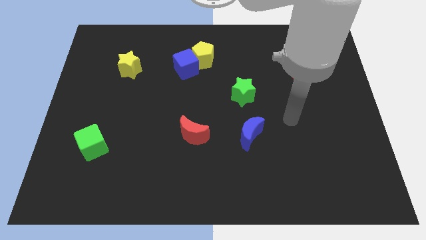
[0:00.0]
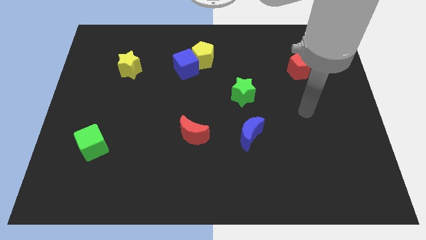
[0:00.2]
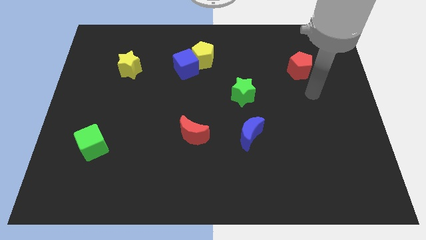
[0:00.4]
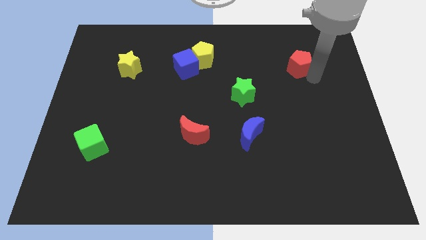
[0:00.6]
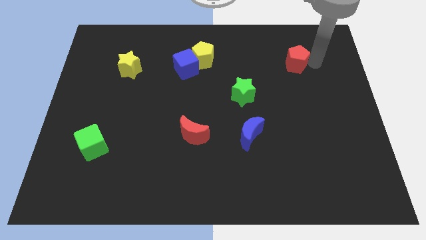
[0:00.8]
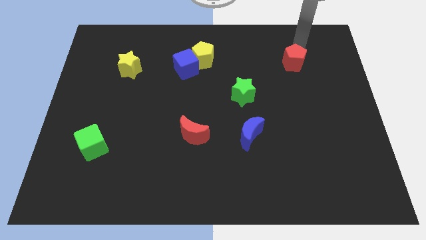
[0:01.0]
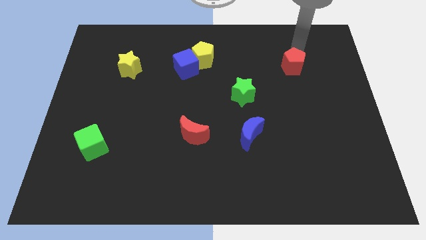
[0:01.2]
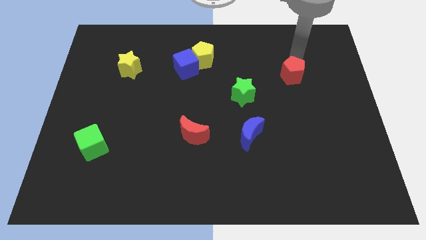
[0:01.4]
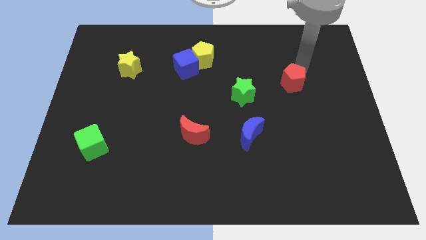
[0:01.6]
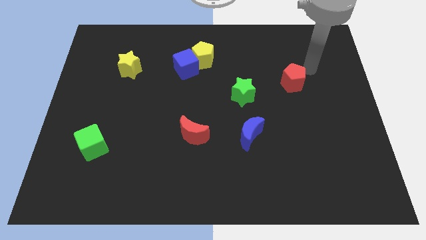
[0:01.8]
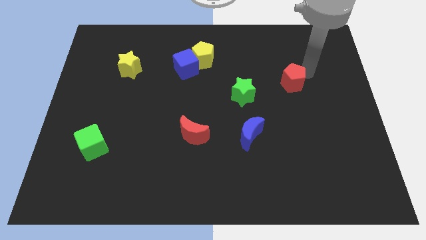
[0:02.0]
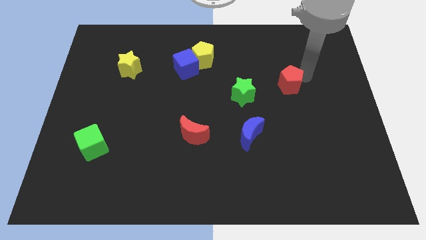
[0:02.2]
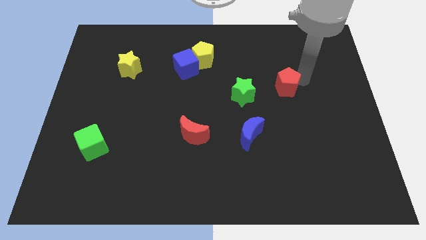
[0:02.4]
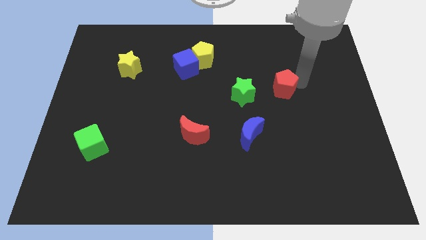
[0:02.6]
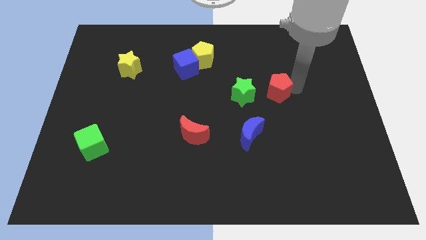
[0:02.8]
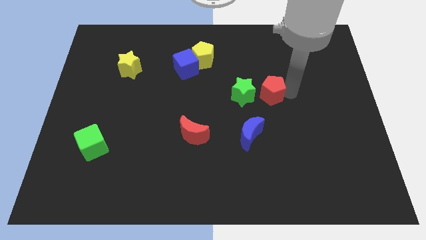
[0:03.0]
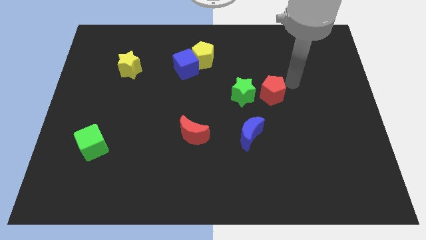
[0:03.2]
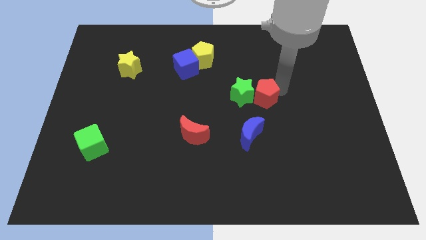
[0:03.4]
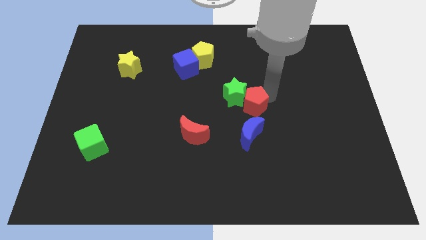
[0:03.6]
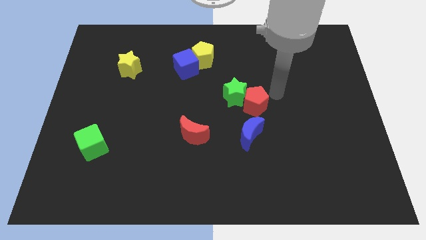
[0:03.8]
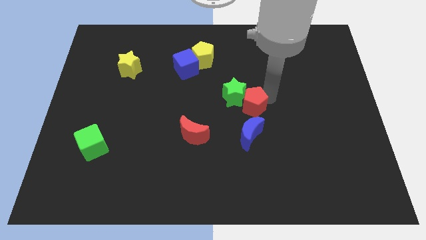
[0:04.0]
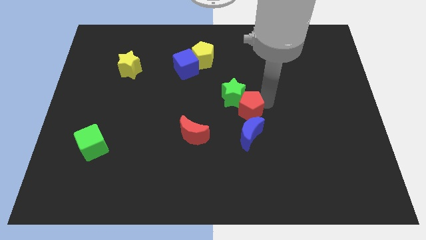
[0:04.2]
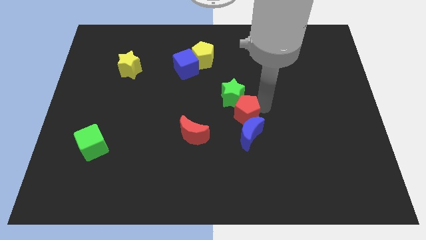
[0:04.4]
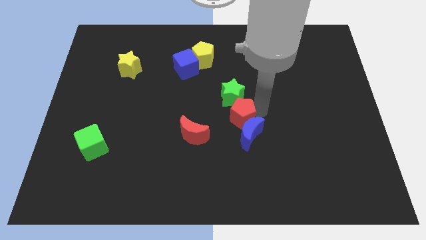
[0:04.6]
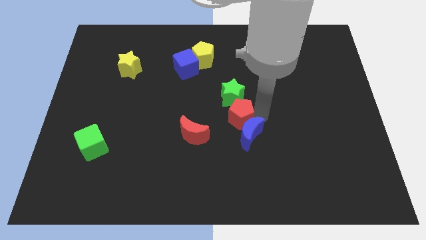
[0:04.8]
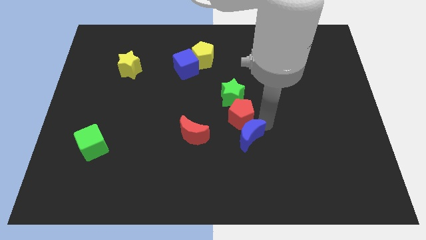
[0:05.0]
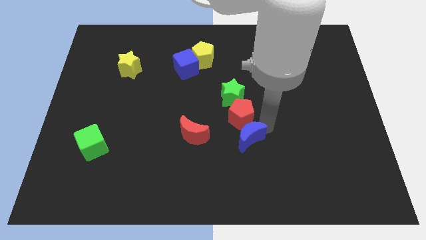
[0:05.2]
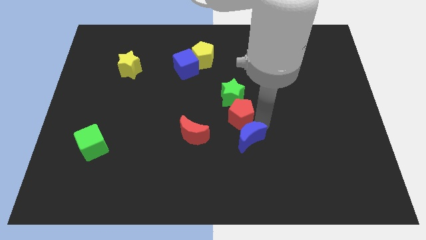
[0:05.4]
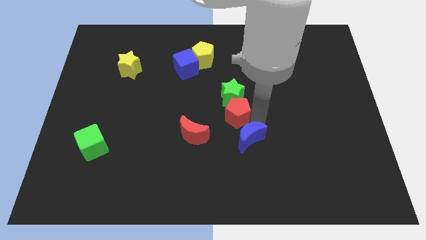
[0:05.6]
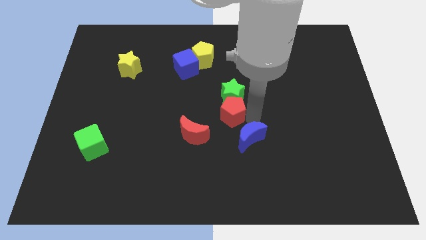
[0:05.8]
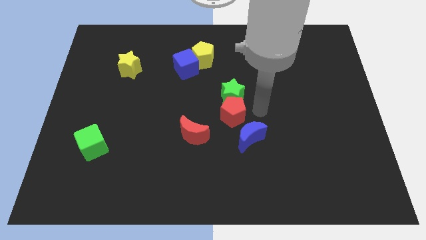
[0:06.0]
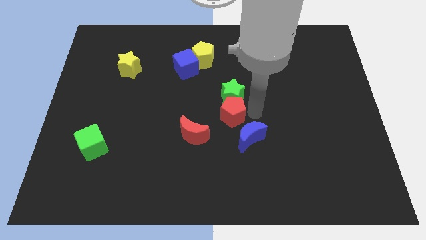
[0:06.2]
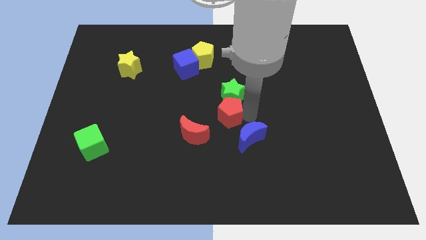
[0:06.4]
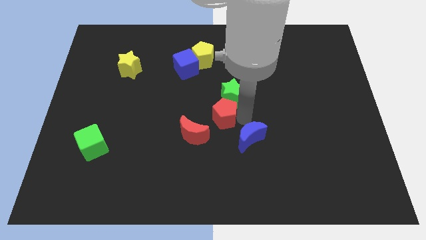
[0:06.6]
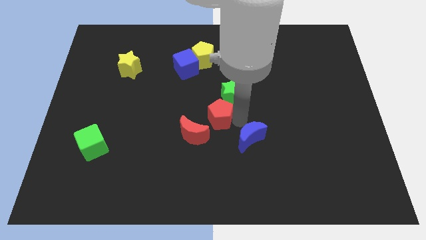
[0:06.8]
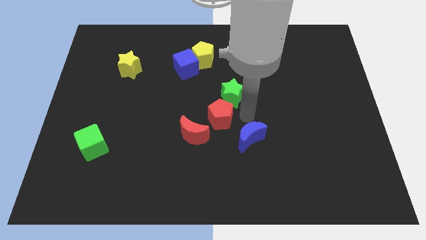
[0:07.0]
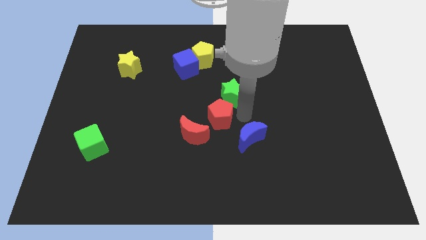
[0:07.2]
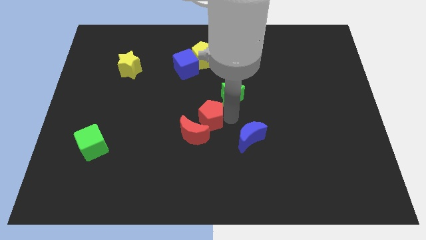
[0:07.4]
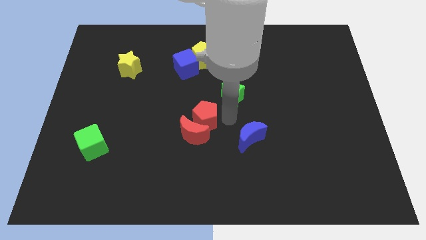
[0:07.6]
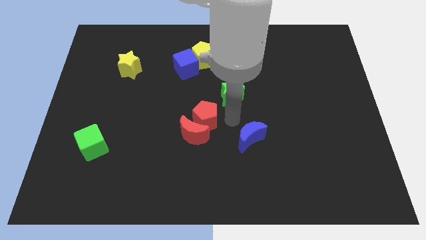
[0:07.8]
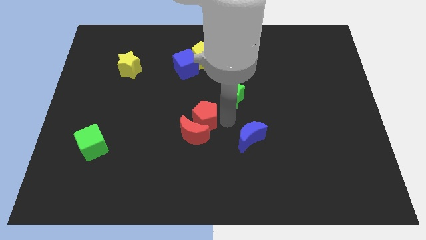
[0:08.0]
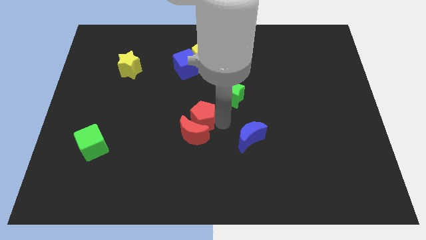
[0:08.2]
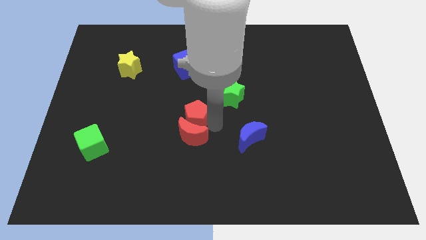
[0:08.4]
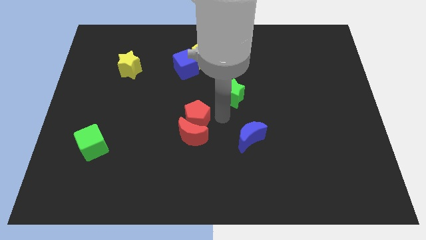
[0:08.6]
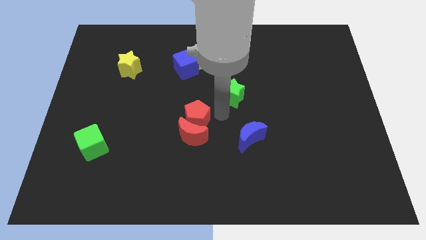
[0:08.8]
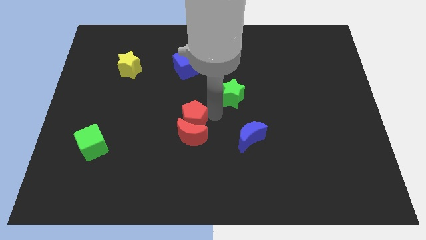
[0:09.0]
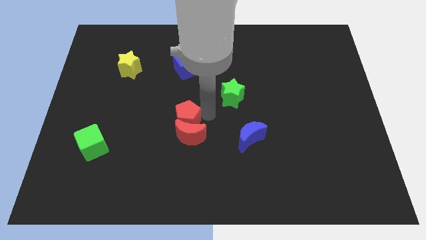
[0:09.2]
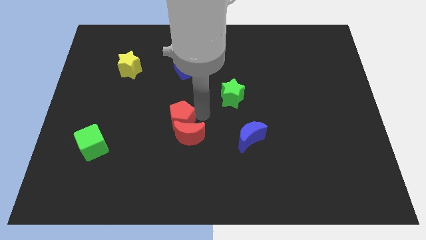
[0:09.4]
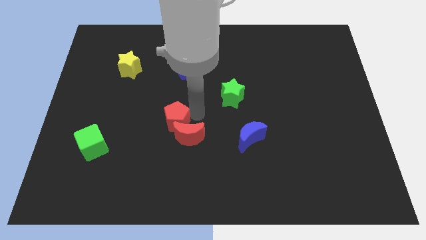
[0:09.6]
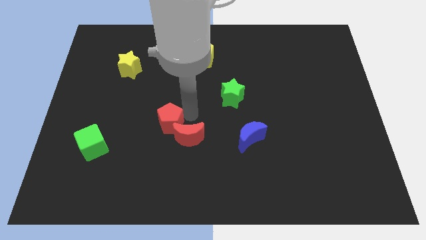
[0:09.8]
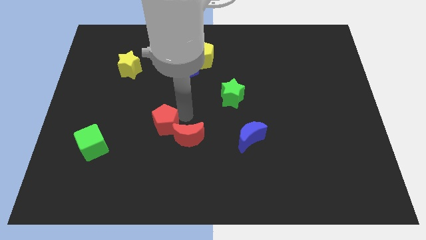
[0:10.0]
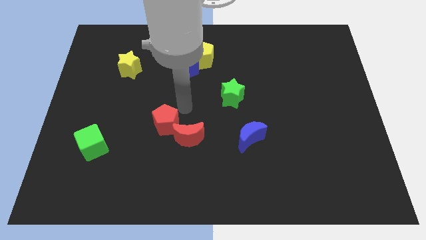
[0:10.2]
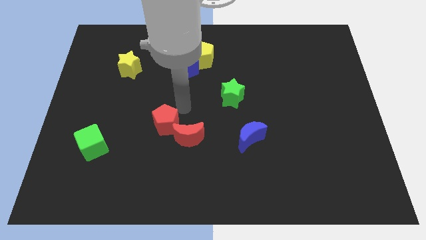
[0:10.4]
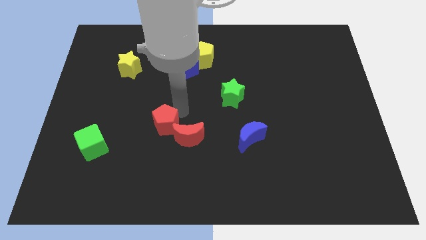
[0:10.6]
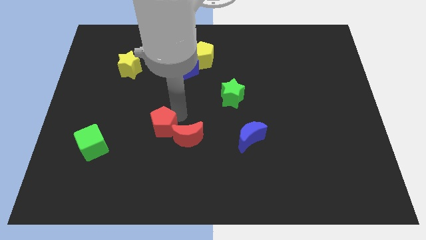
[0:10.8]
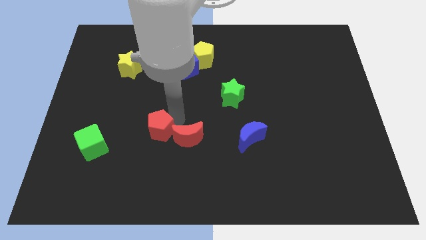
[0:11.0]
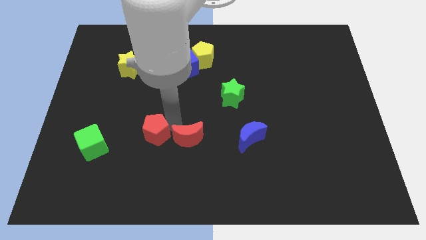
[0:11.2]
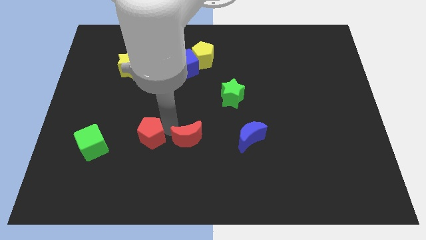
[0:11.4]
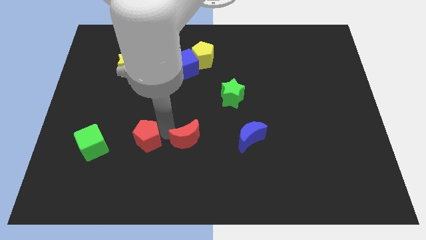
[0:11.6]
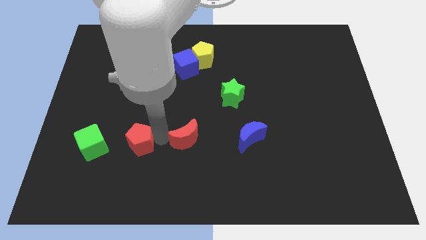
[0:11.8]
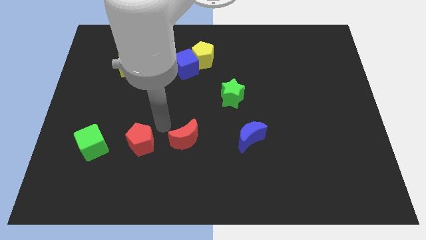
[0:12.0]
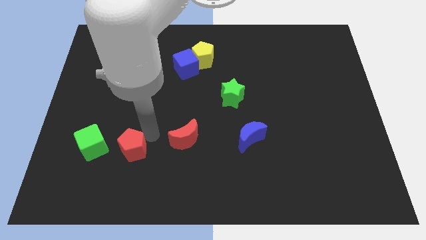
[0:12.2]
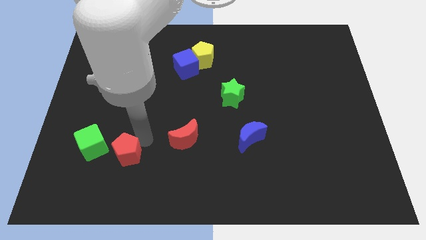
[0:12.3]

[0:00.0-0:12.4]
move the red pentagon diagonally down and to the right of the green cube
